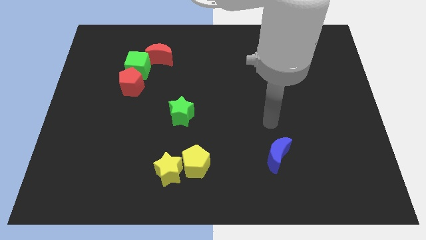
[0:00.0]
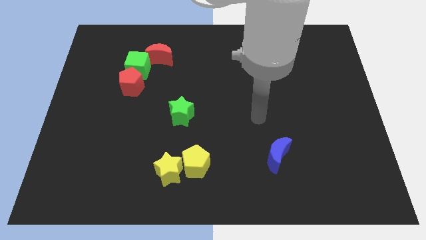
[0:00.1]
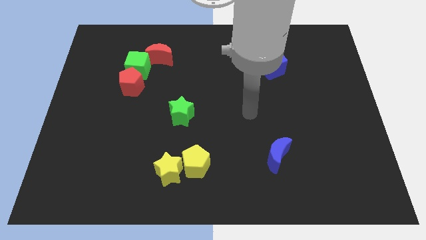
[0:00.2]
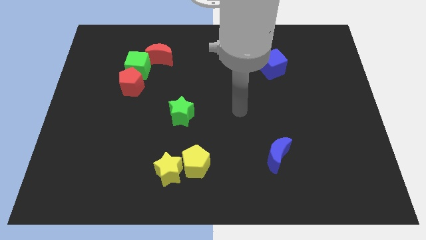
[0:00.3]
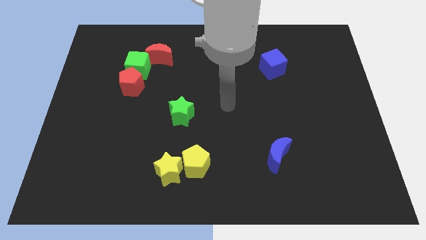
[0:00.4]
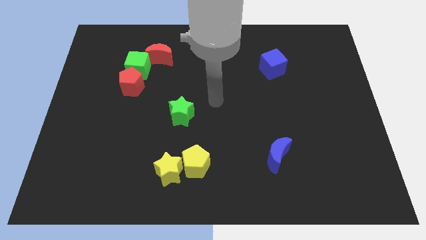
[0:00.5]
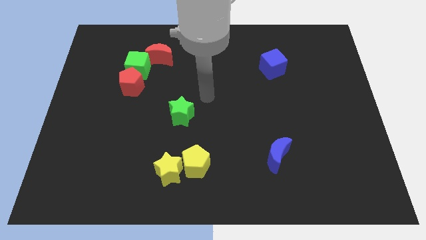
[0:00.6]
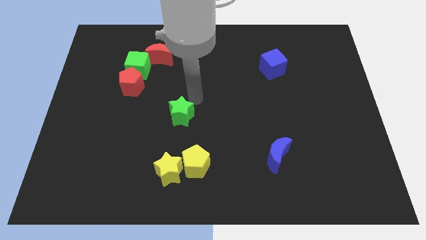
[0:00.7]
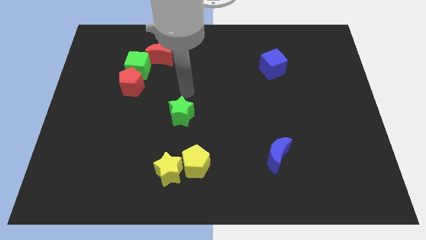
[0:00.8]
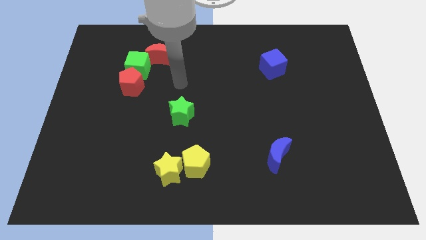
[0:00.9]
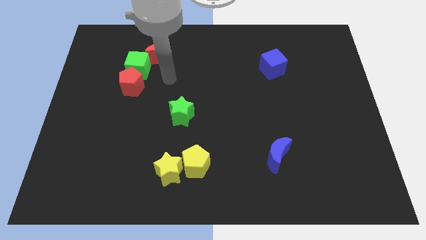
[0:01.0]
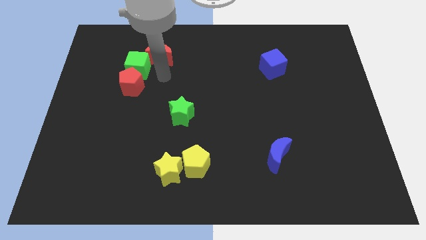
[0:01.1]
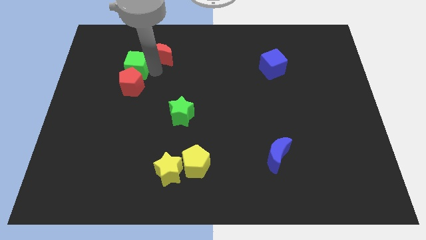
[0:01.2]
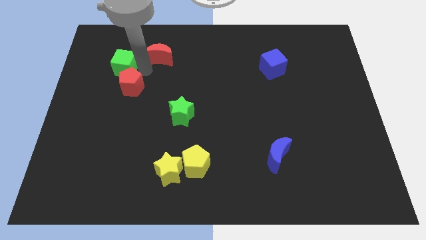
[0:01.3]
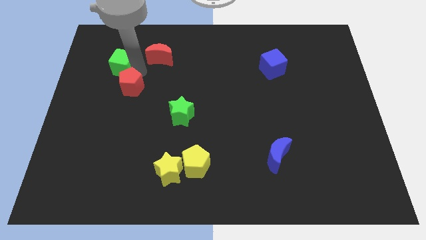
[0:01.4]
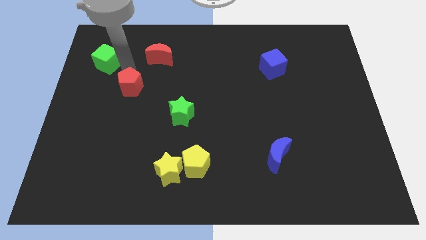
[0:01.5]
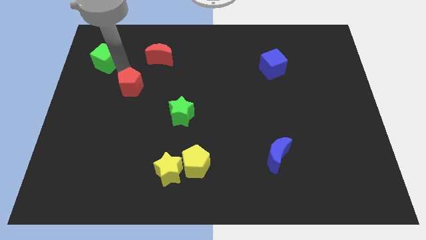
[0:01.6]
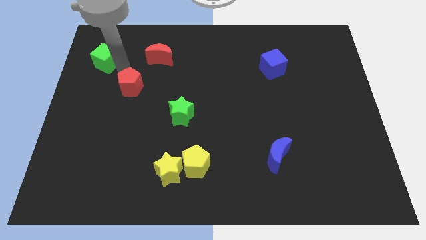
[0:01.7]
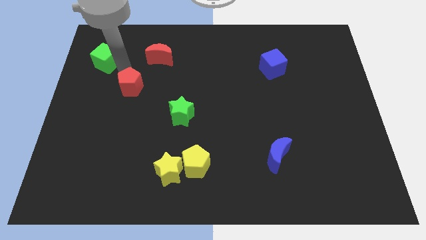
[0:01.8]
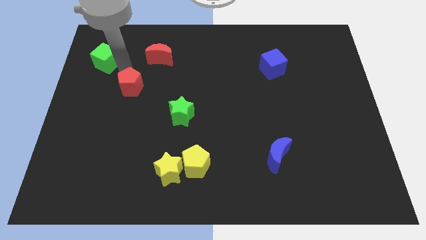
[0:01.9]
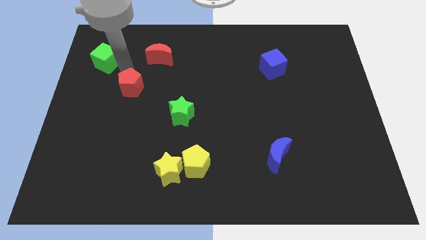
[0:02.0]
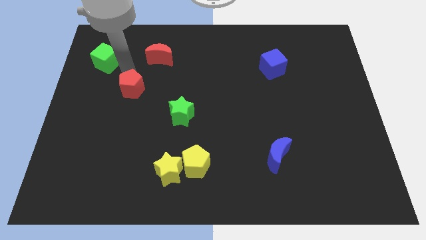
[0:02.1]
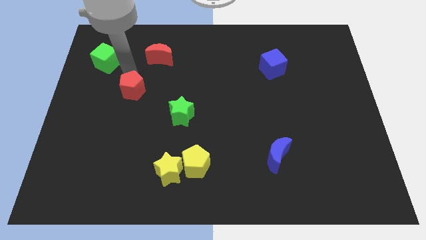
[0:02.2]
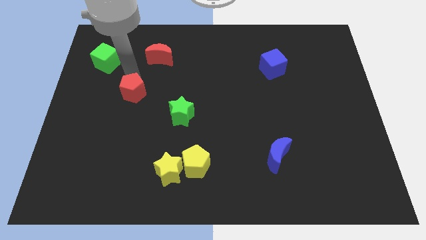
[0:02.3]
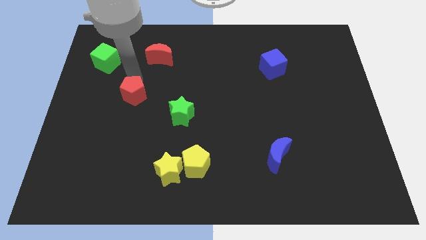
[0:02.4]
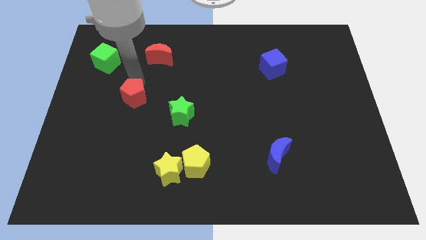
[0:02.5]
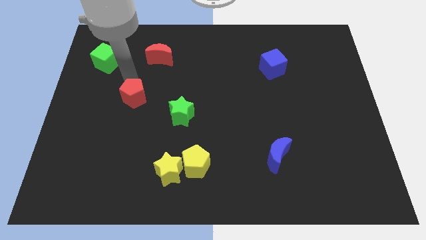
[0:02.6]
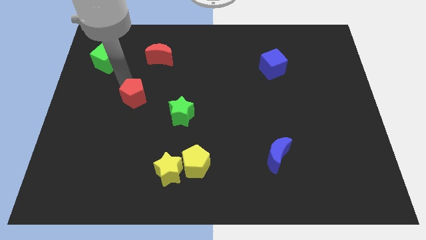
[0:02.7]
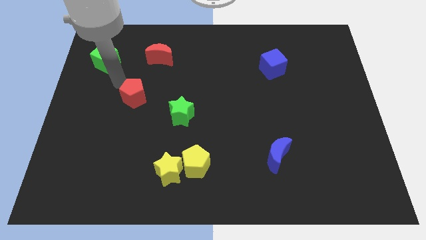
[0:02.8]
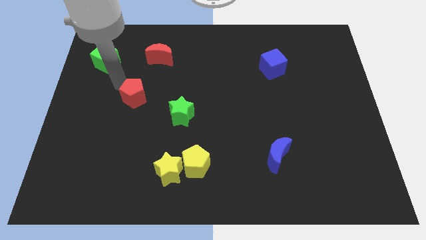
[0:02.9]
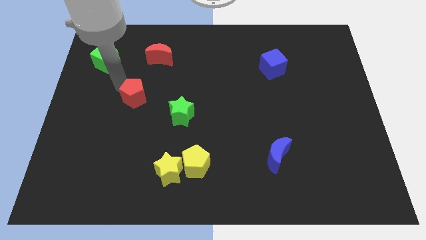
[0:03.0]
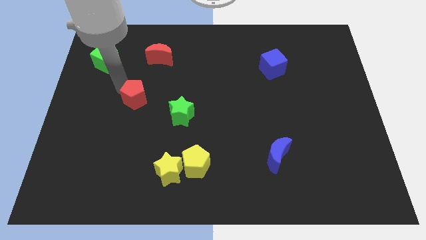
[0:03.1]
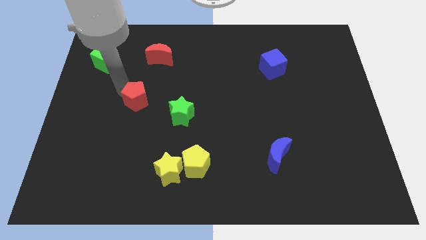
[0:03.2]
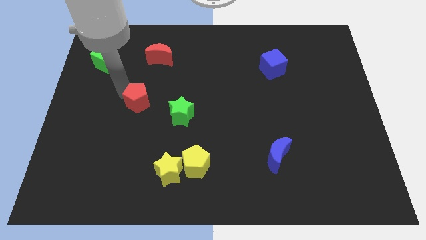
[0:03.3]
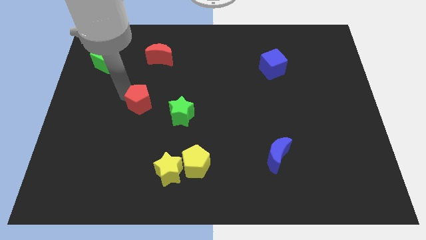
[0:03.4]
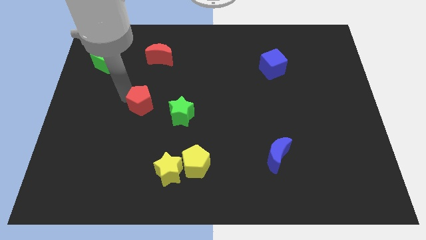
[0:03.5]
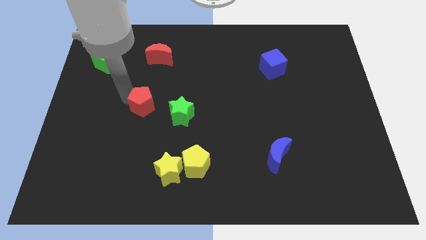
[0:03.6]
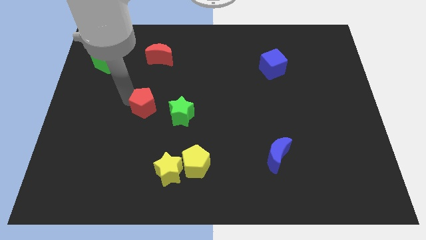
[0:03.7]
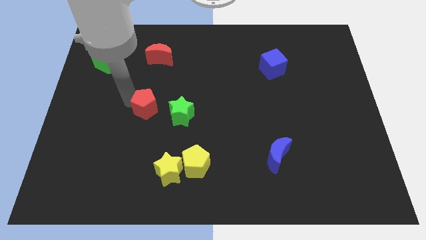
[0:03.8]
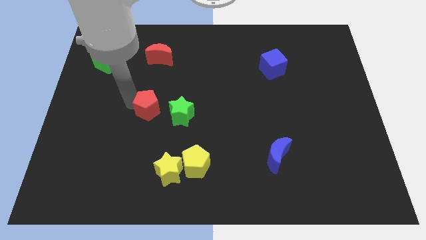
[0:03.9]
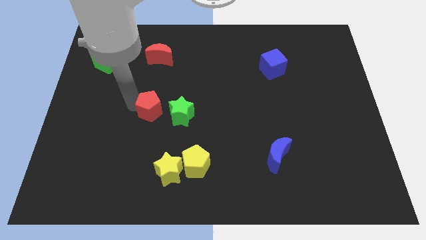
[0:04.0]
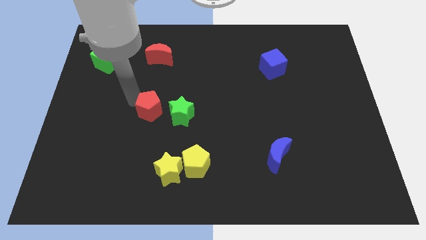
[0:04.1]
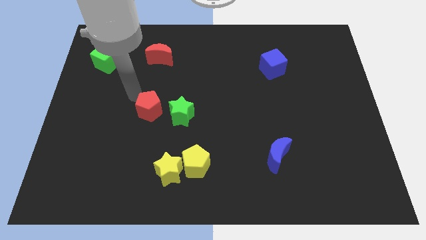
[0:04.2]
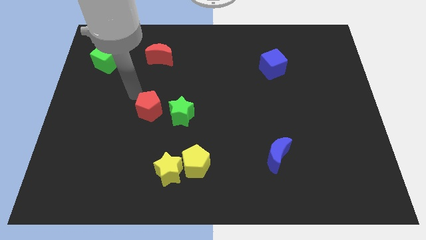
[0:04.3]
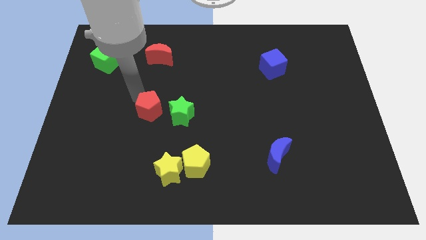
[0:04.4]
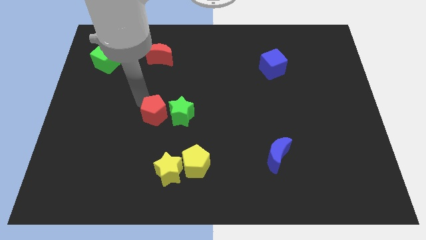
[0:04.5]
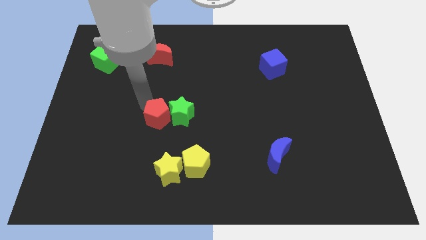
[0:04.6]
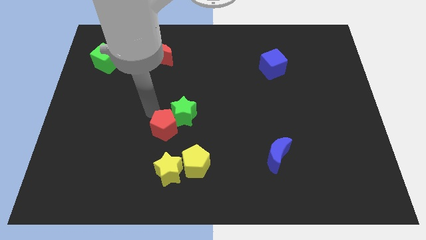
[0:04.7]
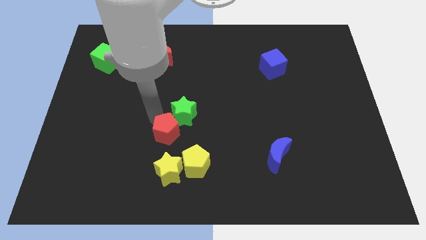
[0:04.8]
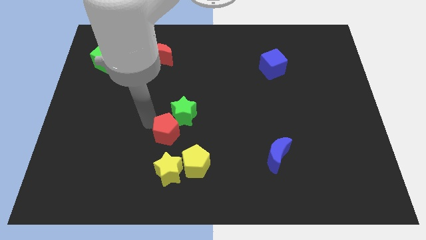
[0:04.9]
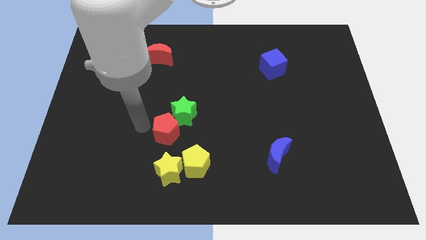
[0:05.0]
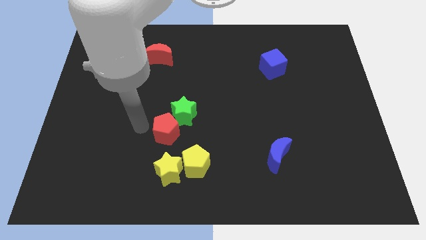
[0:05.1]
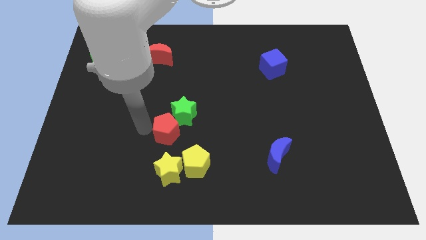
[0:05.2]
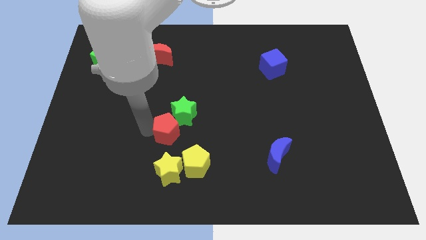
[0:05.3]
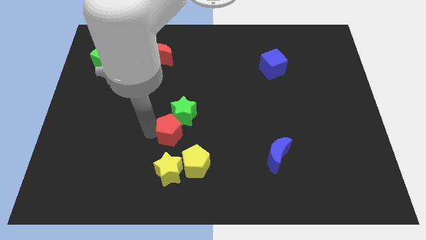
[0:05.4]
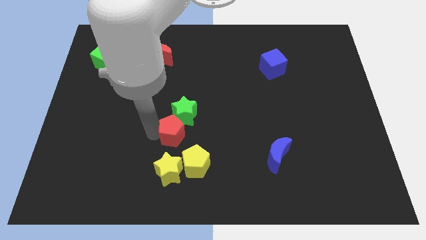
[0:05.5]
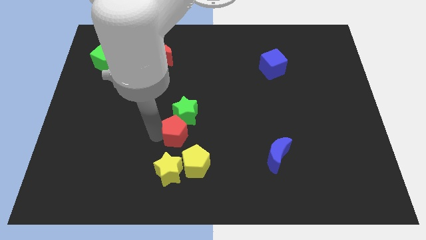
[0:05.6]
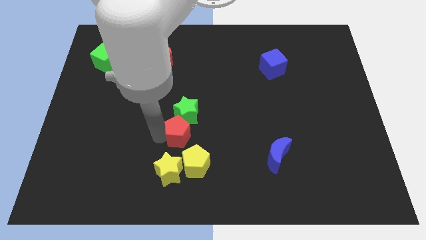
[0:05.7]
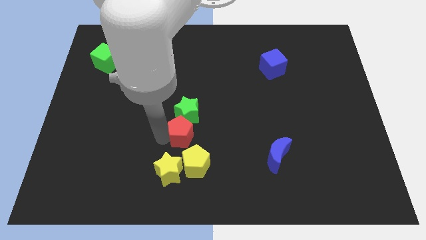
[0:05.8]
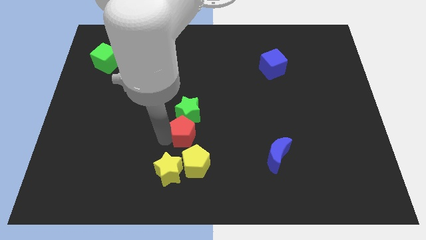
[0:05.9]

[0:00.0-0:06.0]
move the red pentagon diagonally downwards and right

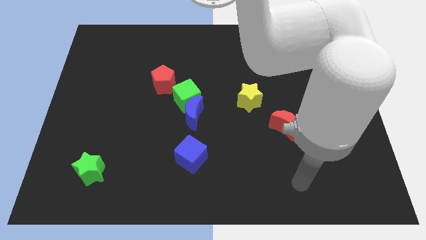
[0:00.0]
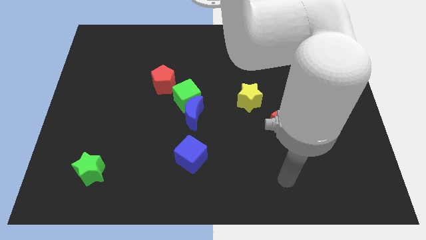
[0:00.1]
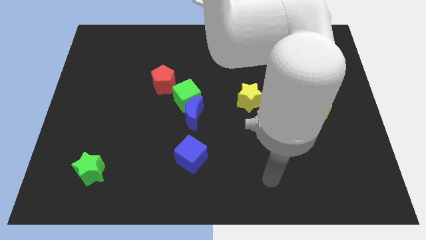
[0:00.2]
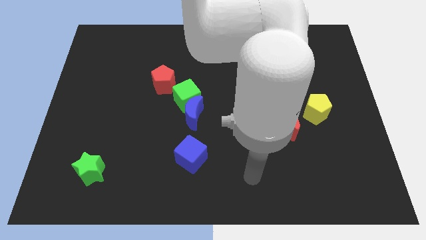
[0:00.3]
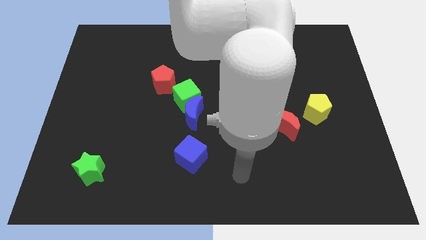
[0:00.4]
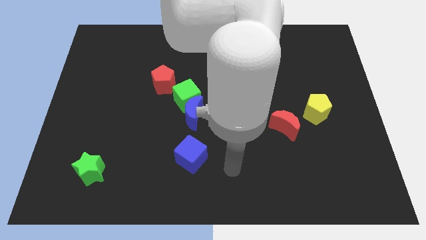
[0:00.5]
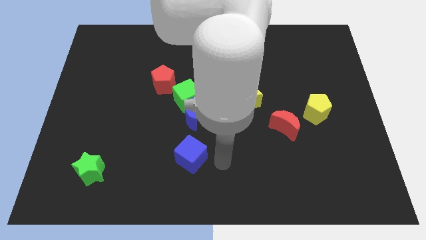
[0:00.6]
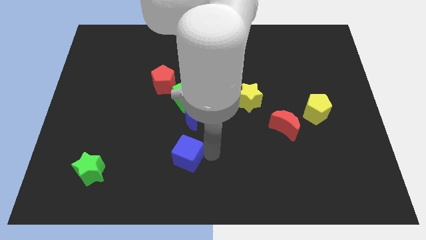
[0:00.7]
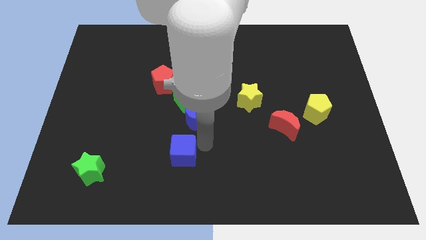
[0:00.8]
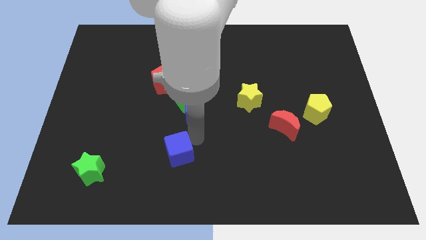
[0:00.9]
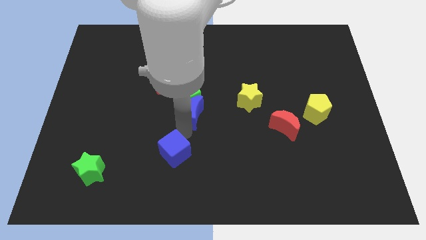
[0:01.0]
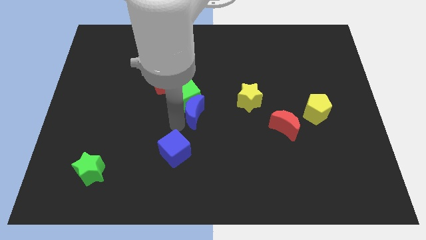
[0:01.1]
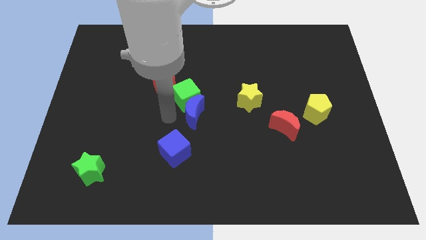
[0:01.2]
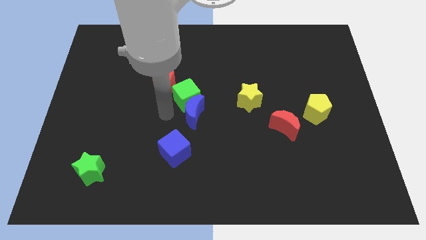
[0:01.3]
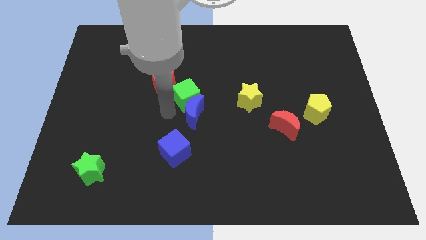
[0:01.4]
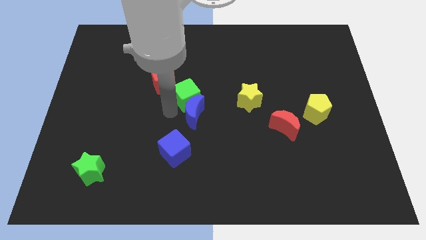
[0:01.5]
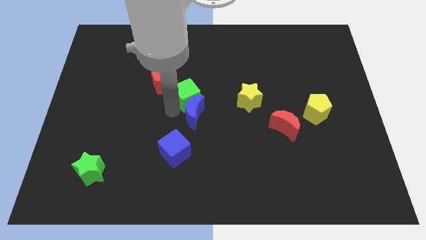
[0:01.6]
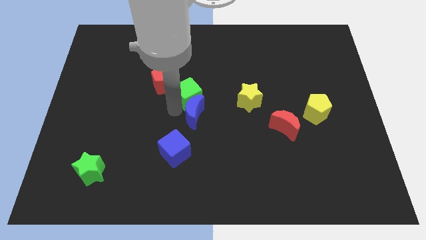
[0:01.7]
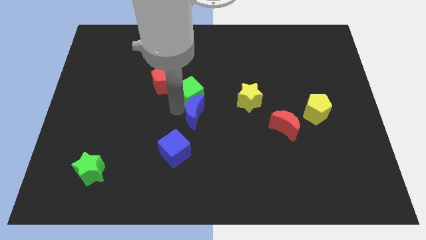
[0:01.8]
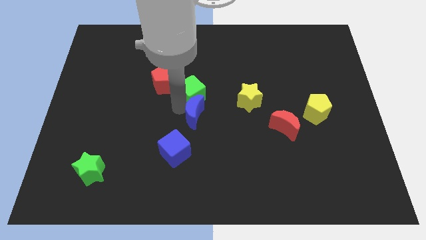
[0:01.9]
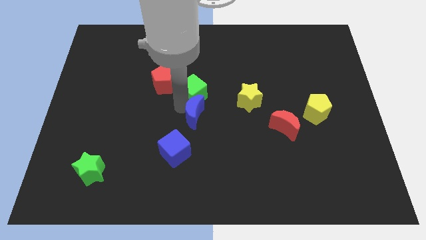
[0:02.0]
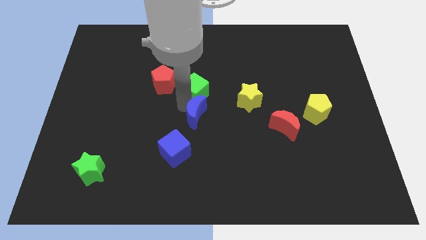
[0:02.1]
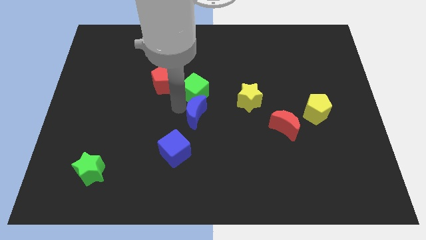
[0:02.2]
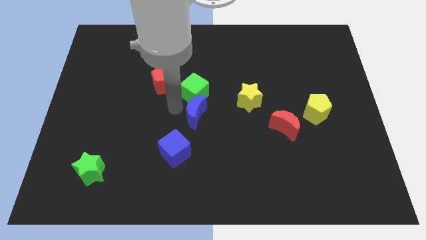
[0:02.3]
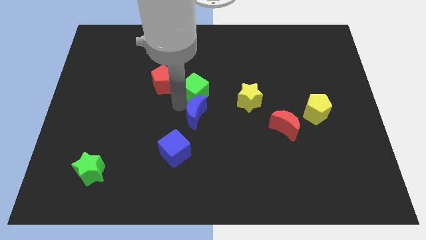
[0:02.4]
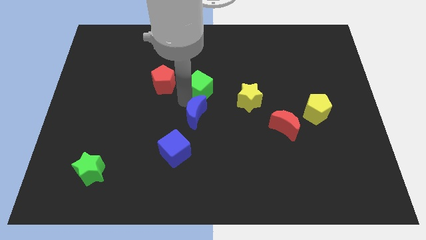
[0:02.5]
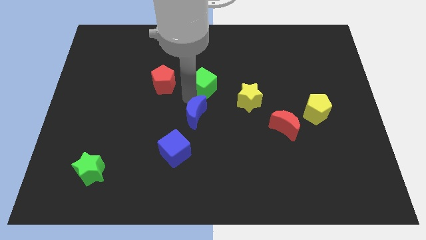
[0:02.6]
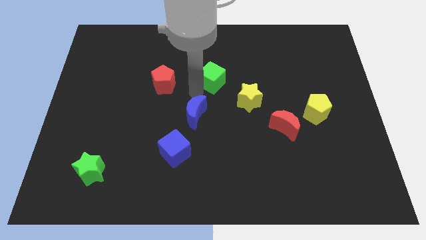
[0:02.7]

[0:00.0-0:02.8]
push the green cube up and then to the right slightly
